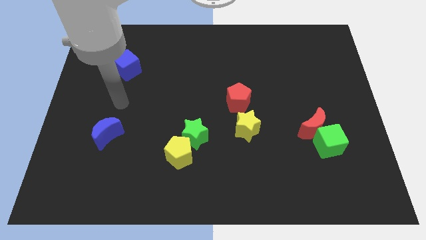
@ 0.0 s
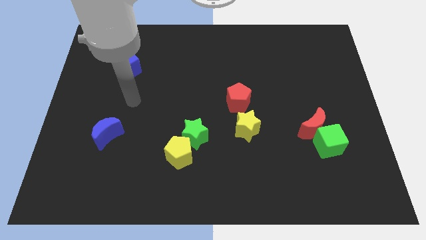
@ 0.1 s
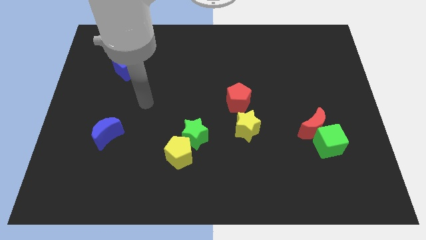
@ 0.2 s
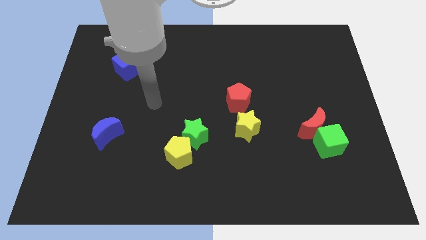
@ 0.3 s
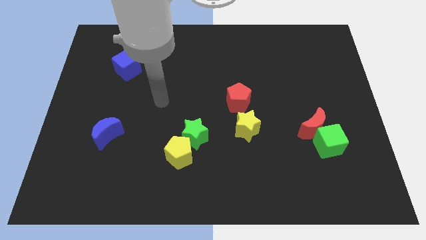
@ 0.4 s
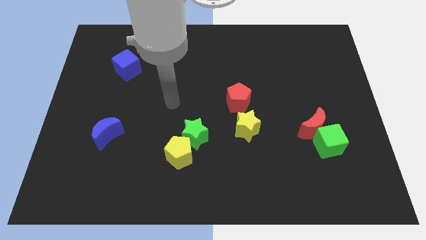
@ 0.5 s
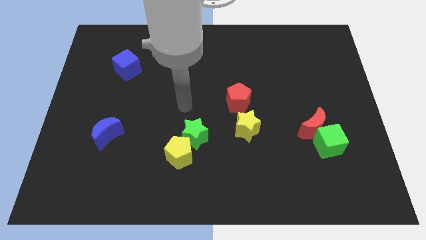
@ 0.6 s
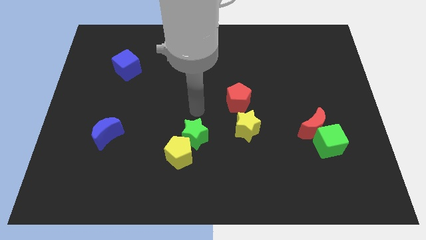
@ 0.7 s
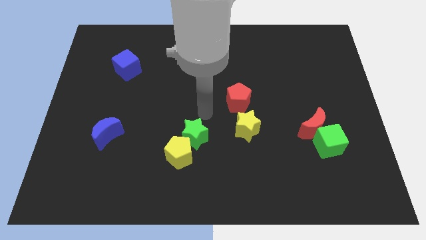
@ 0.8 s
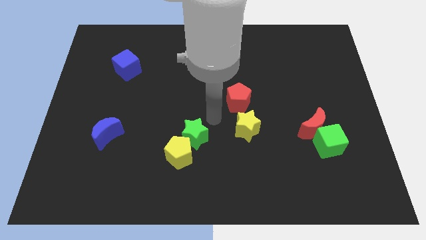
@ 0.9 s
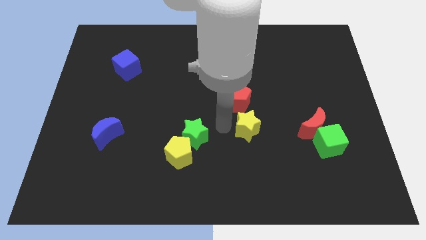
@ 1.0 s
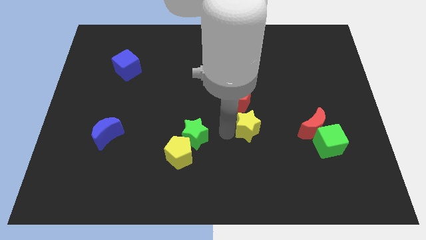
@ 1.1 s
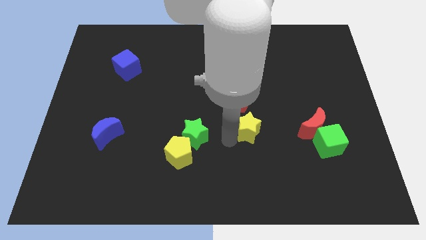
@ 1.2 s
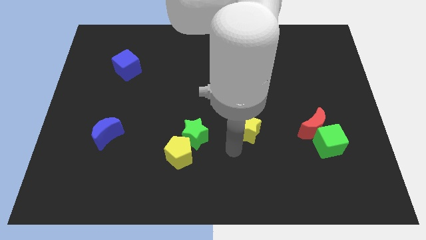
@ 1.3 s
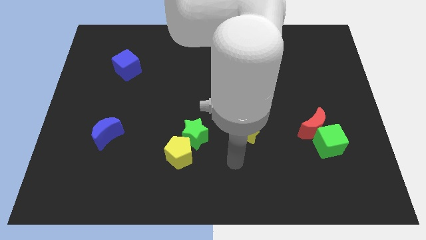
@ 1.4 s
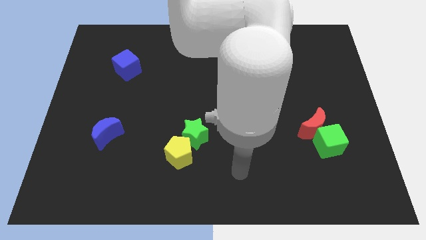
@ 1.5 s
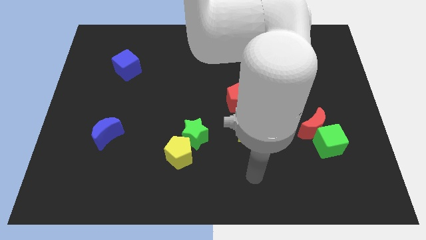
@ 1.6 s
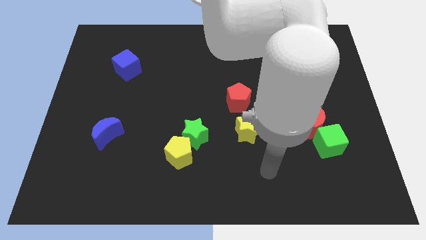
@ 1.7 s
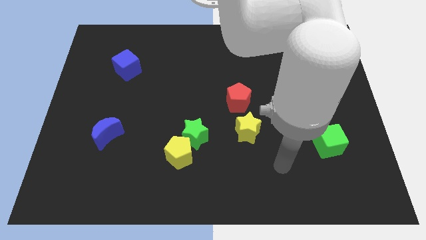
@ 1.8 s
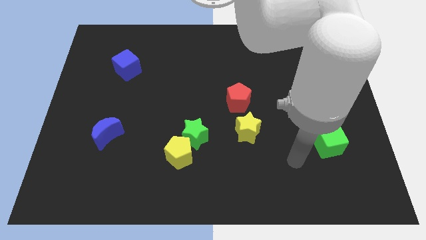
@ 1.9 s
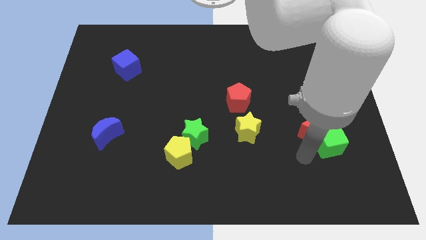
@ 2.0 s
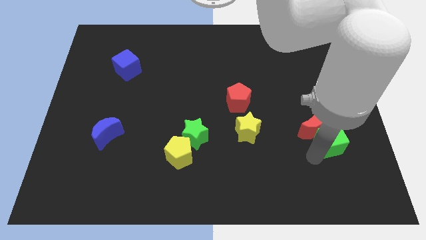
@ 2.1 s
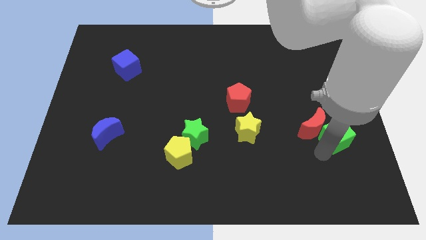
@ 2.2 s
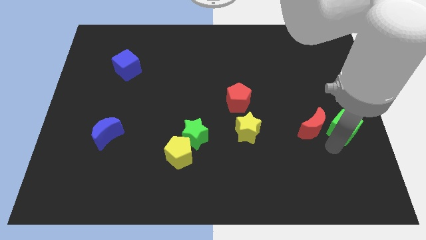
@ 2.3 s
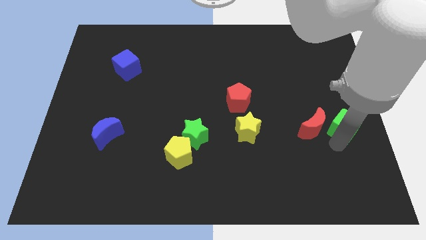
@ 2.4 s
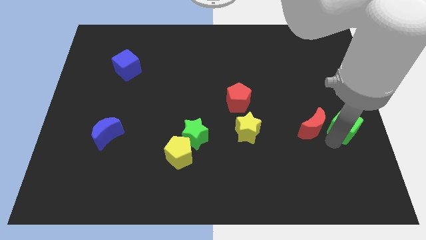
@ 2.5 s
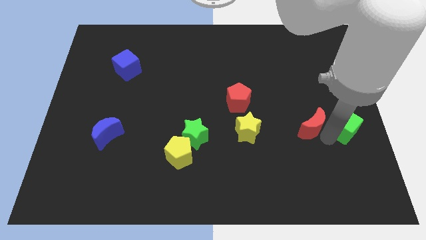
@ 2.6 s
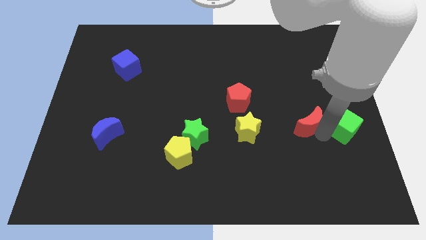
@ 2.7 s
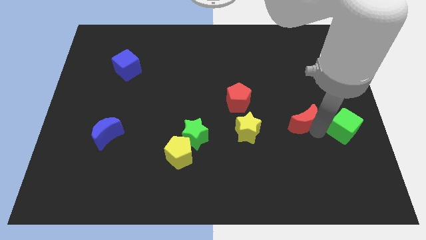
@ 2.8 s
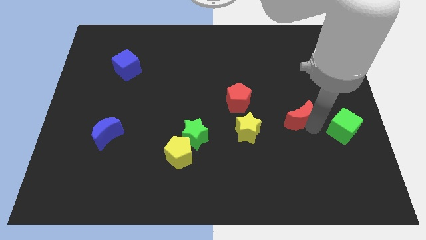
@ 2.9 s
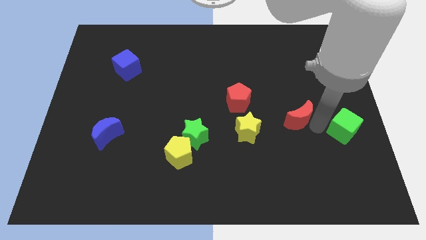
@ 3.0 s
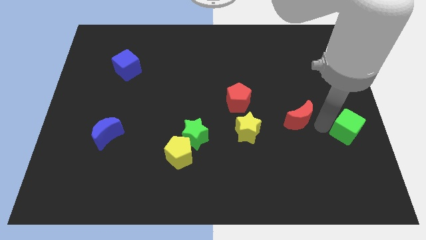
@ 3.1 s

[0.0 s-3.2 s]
move the red moon away from the green cube

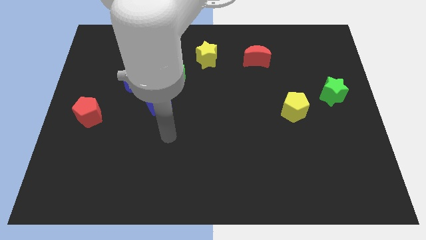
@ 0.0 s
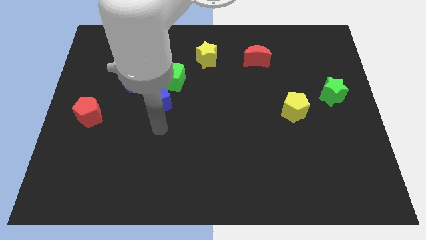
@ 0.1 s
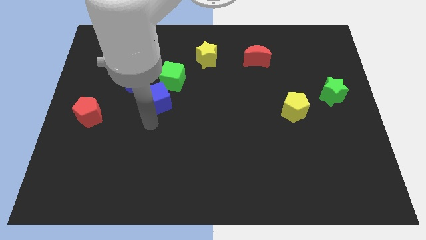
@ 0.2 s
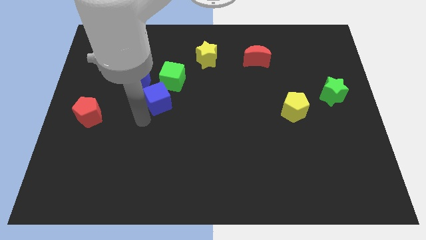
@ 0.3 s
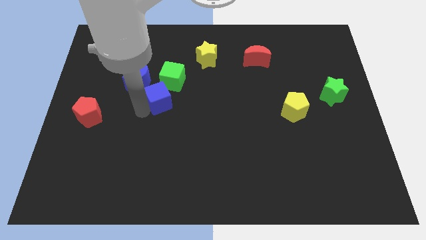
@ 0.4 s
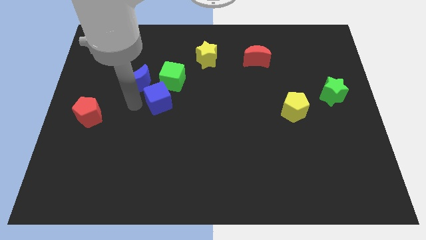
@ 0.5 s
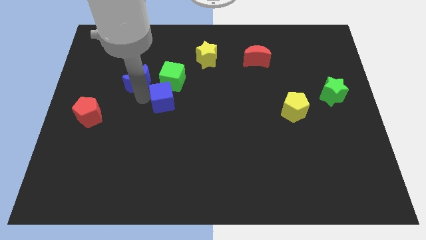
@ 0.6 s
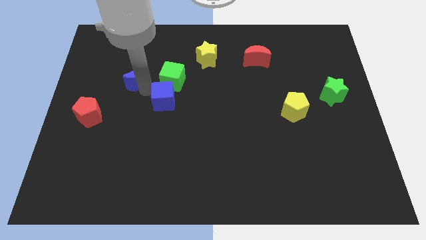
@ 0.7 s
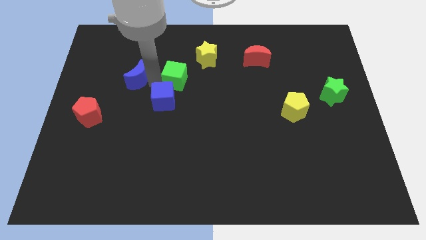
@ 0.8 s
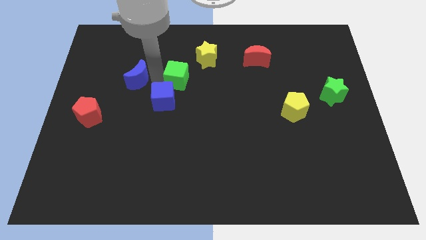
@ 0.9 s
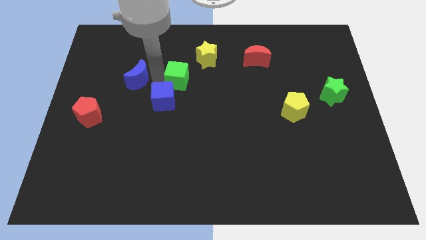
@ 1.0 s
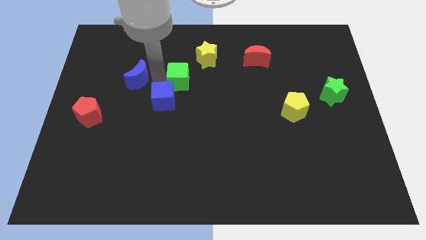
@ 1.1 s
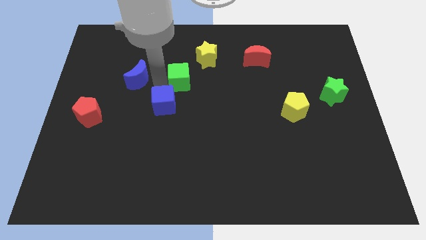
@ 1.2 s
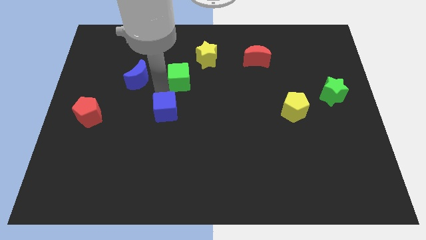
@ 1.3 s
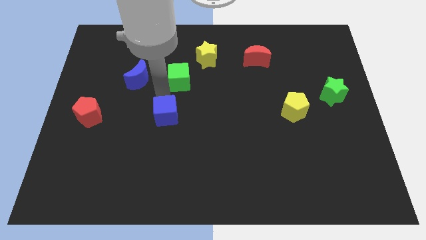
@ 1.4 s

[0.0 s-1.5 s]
separate the blue cube from the green cube and blue moon

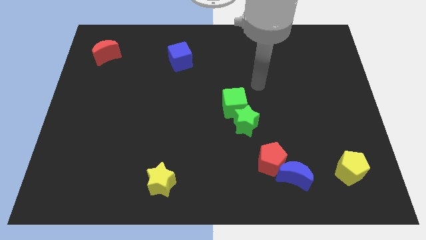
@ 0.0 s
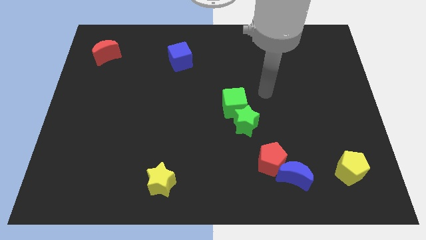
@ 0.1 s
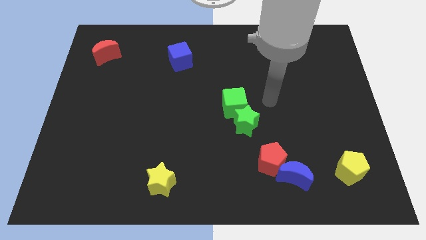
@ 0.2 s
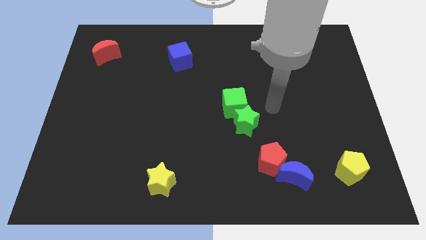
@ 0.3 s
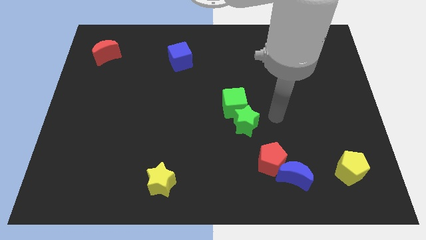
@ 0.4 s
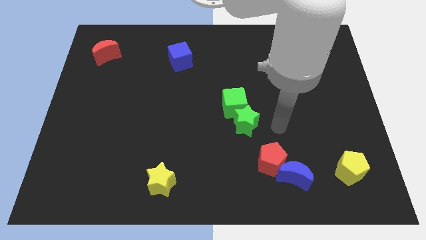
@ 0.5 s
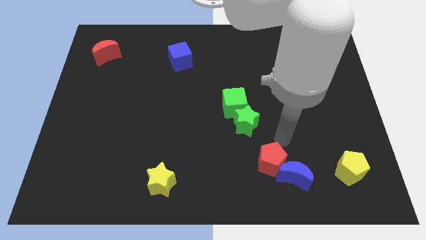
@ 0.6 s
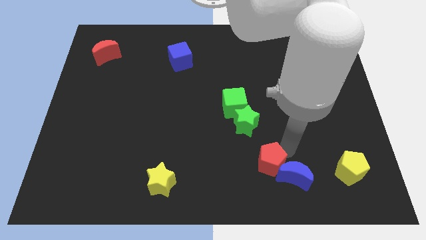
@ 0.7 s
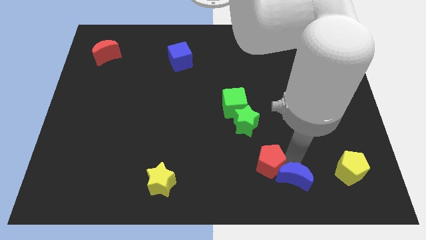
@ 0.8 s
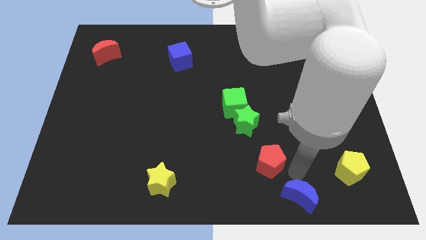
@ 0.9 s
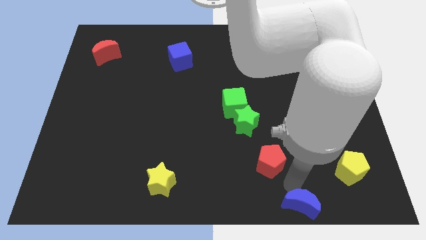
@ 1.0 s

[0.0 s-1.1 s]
pull the red pentagon apart from the blue moon

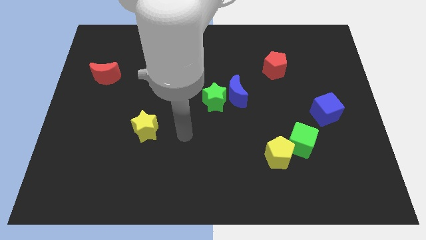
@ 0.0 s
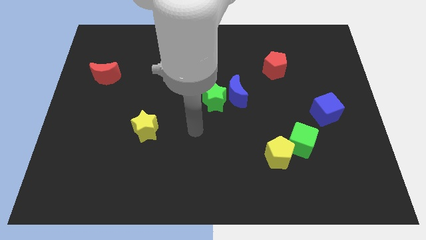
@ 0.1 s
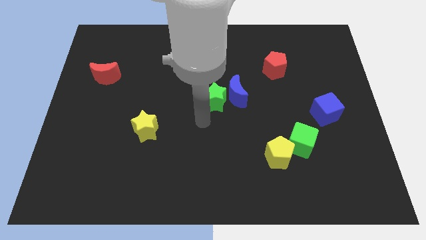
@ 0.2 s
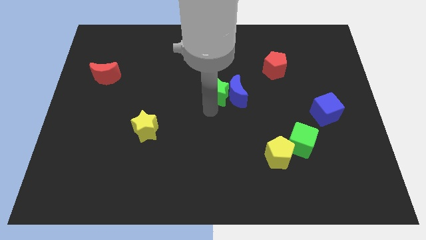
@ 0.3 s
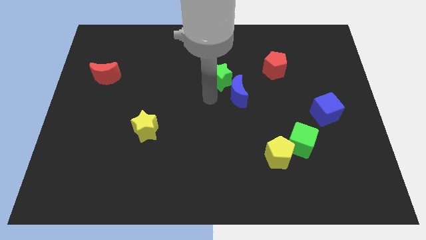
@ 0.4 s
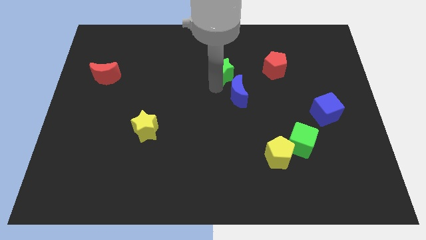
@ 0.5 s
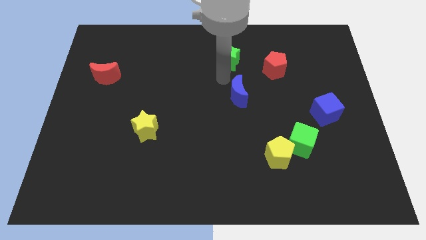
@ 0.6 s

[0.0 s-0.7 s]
move the blue moon away from the green star

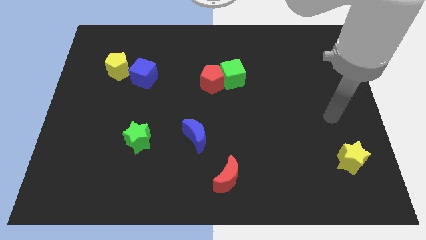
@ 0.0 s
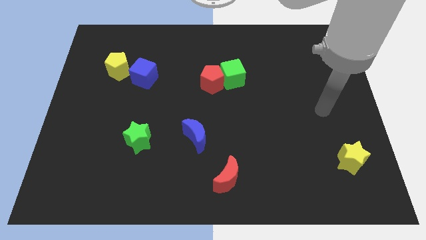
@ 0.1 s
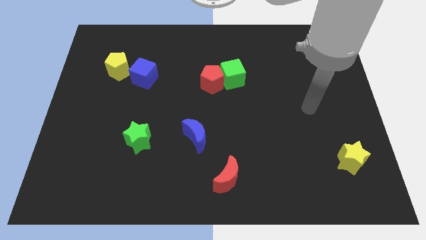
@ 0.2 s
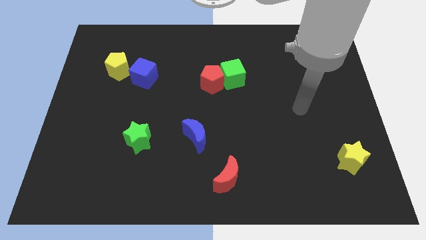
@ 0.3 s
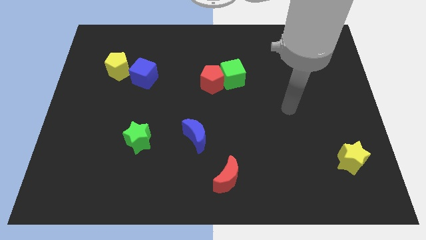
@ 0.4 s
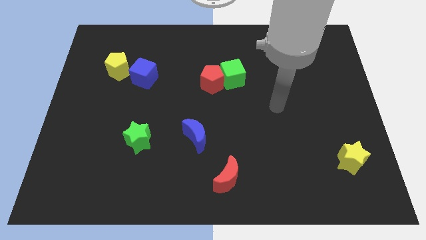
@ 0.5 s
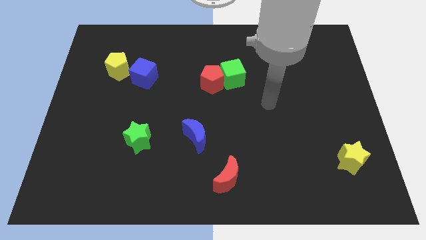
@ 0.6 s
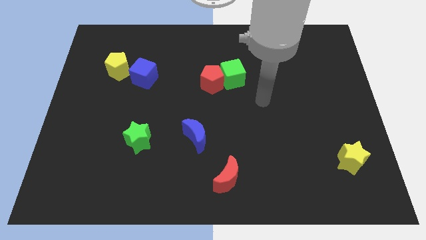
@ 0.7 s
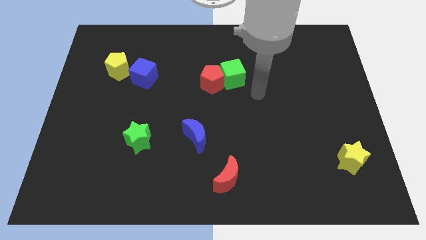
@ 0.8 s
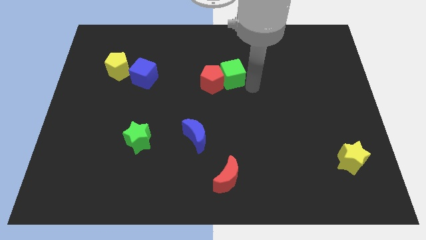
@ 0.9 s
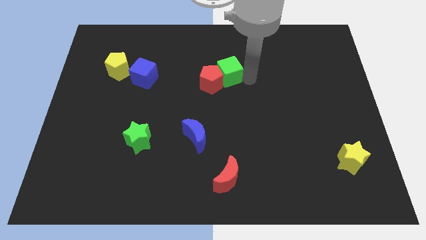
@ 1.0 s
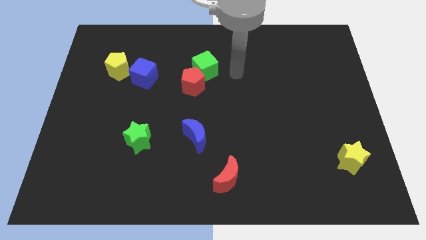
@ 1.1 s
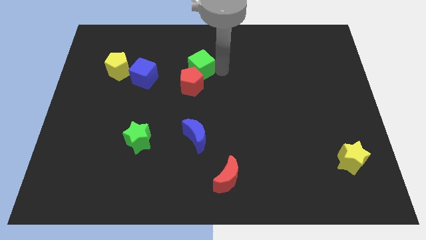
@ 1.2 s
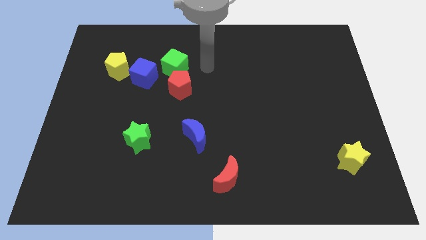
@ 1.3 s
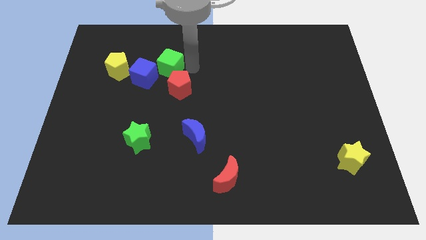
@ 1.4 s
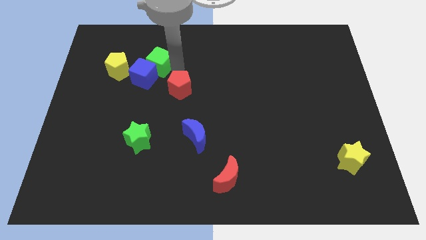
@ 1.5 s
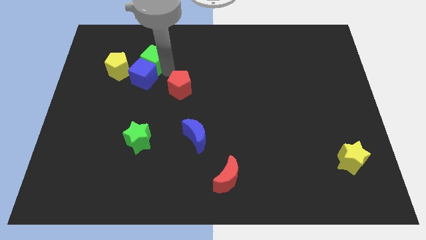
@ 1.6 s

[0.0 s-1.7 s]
separate the red pentagon from the green cube

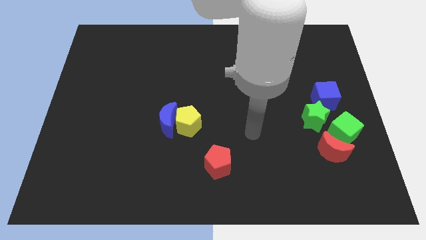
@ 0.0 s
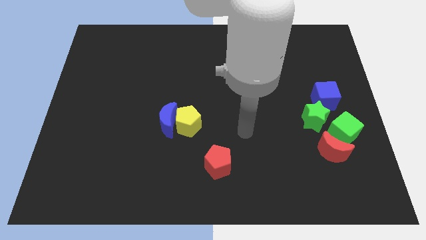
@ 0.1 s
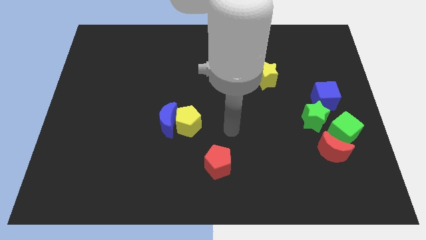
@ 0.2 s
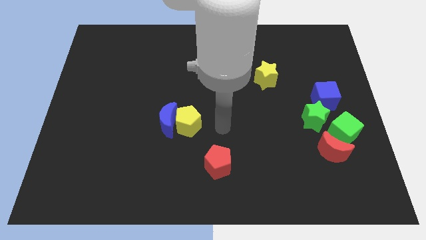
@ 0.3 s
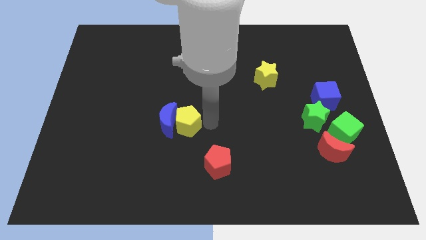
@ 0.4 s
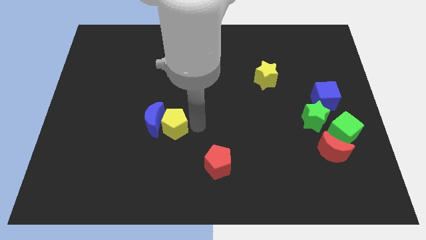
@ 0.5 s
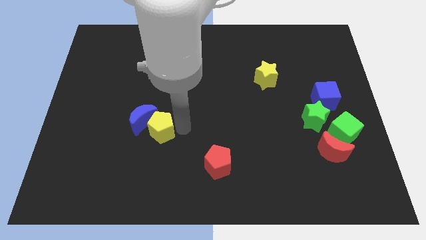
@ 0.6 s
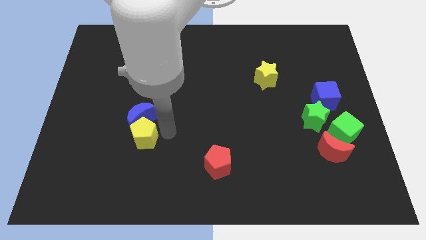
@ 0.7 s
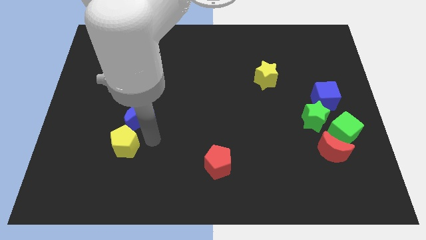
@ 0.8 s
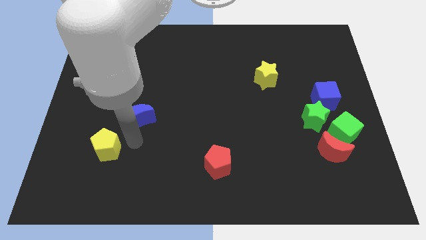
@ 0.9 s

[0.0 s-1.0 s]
move the blue moon away from the yellow pentagon

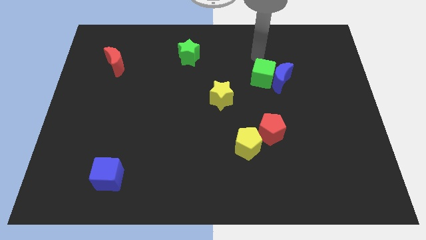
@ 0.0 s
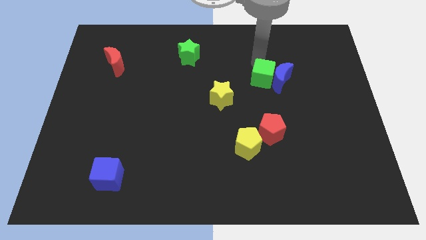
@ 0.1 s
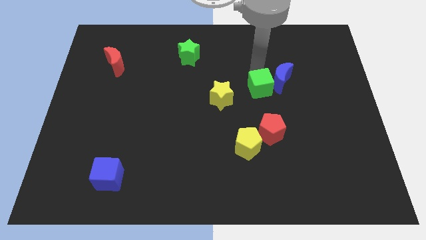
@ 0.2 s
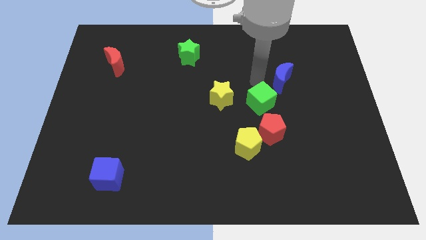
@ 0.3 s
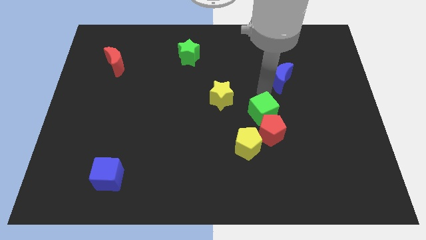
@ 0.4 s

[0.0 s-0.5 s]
pull the blue moon apart from the green cube
